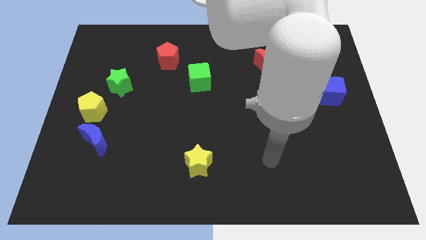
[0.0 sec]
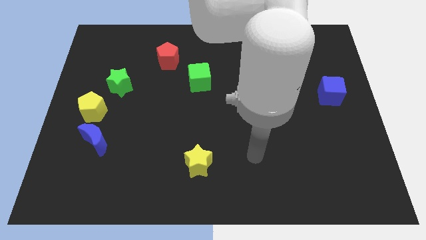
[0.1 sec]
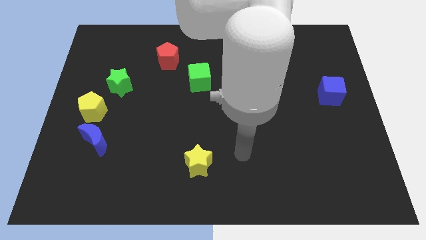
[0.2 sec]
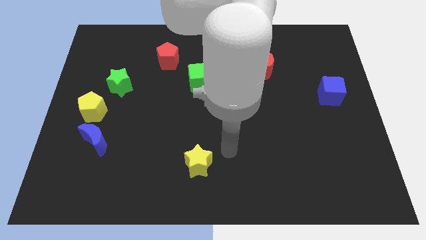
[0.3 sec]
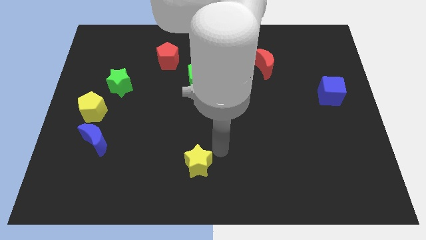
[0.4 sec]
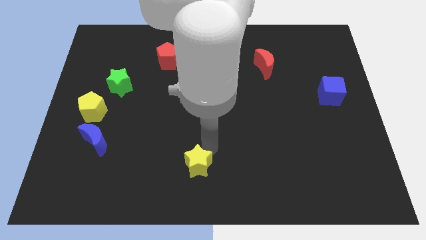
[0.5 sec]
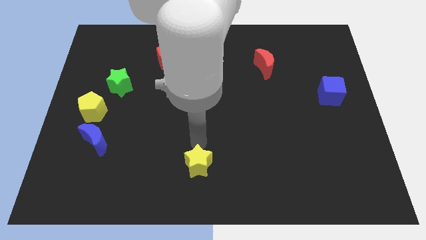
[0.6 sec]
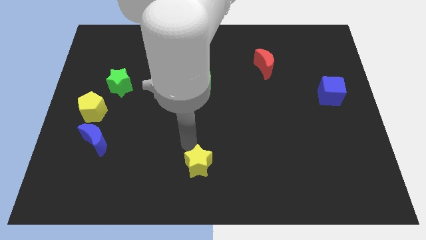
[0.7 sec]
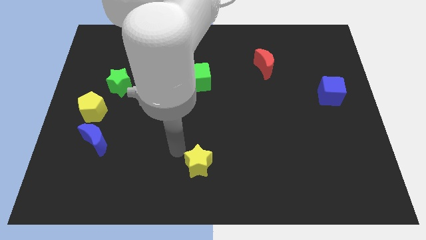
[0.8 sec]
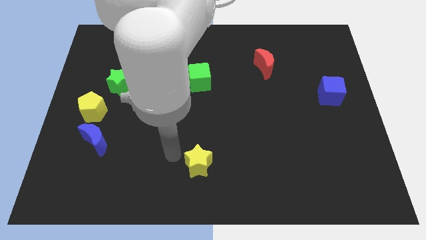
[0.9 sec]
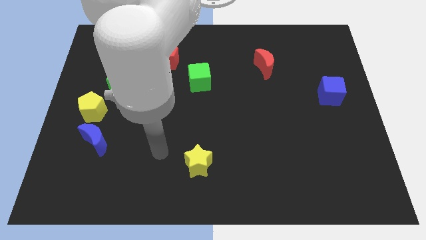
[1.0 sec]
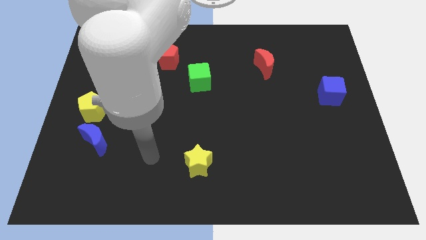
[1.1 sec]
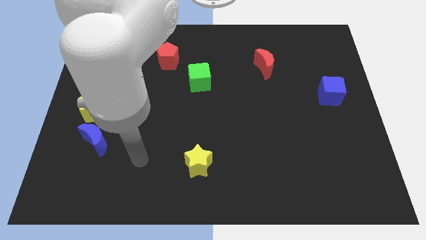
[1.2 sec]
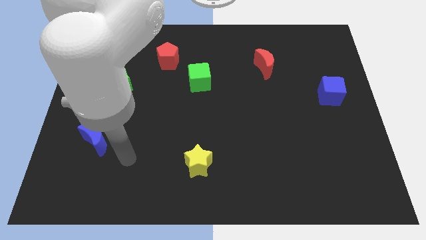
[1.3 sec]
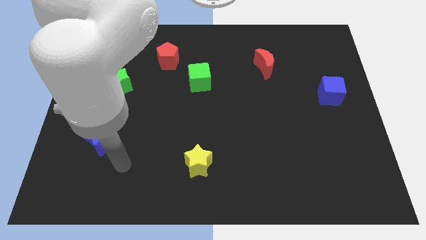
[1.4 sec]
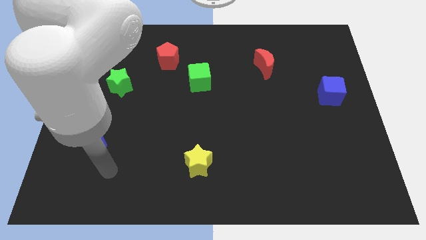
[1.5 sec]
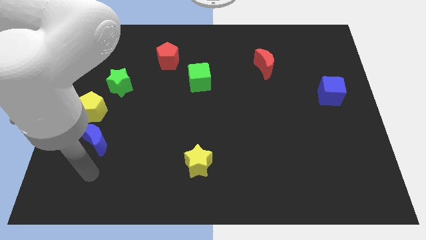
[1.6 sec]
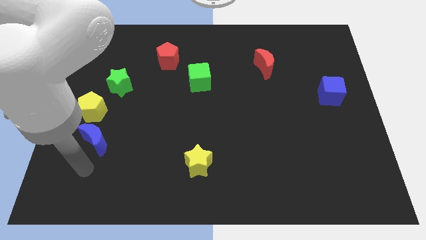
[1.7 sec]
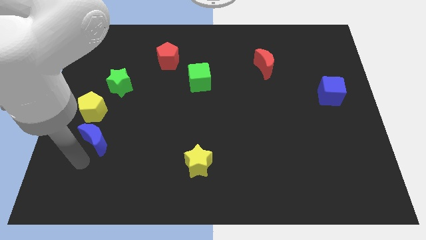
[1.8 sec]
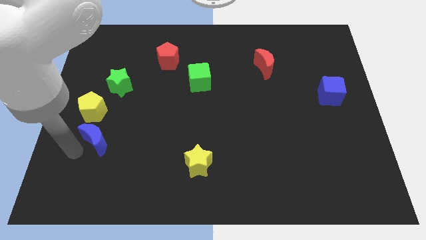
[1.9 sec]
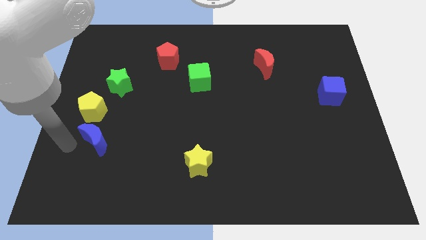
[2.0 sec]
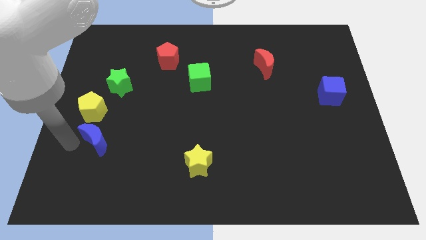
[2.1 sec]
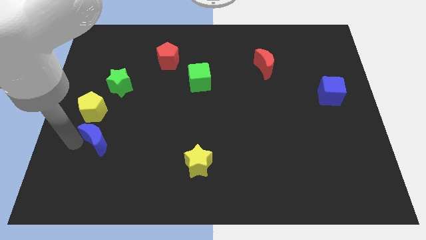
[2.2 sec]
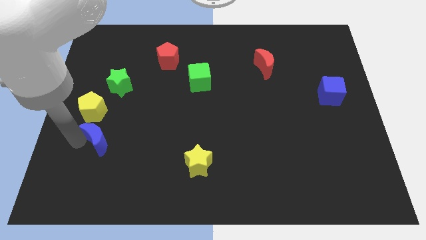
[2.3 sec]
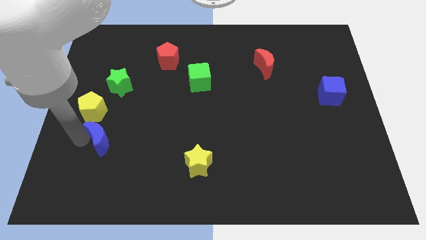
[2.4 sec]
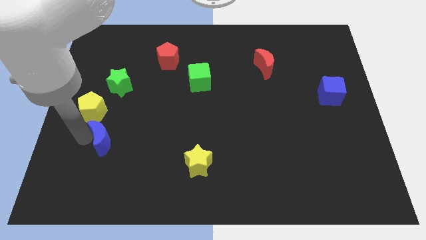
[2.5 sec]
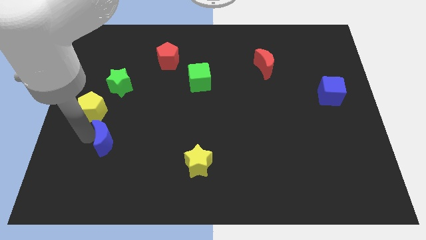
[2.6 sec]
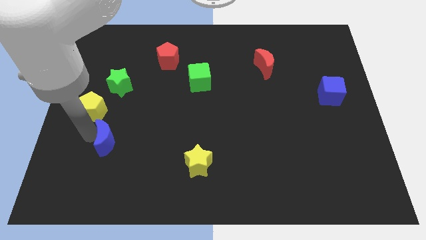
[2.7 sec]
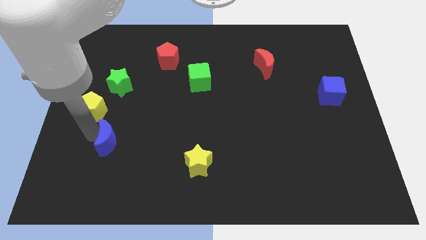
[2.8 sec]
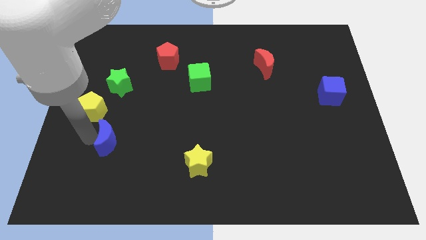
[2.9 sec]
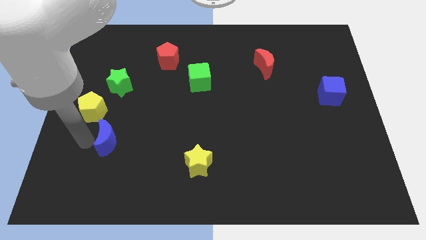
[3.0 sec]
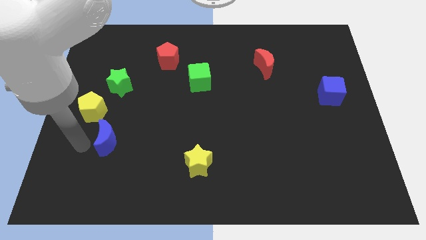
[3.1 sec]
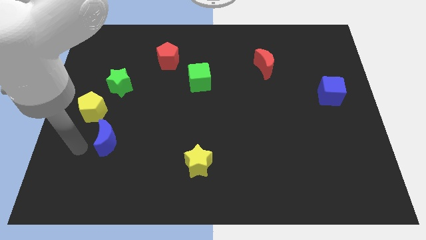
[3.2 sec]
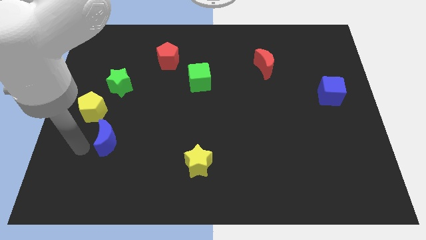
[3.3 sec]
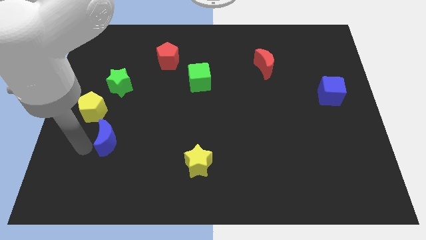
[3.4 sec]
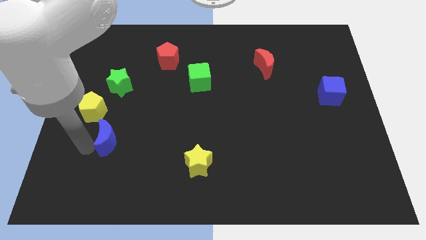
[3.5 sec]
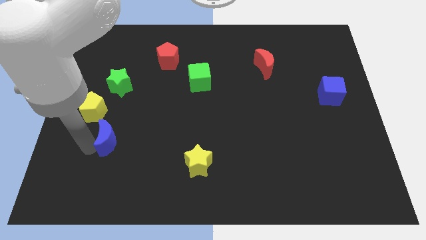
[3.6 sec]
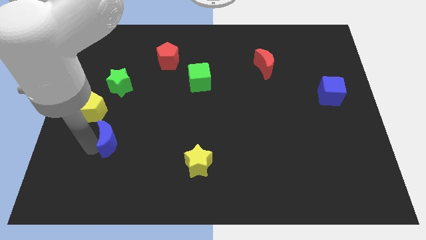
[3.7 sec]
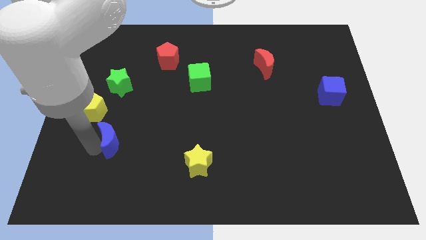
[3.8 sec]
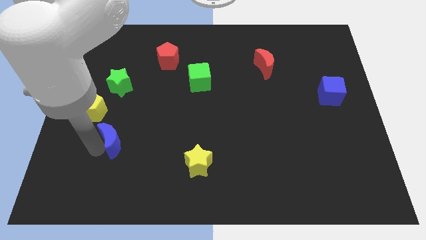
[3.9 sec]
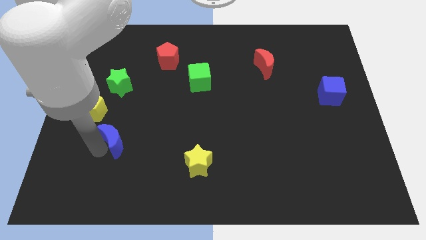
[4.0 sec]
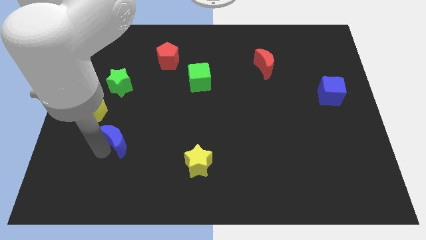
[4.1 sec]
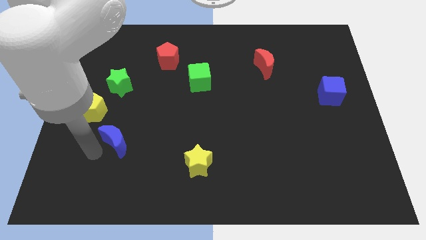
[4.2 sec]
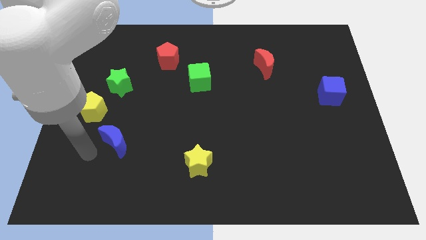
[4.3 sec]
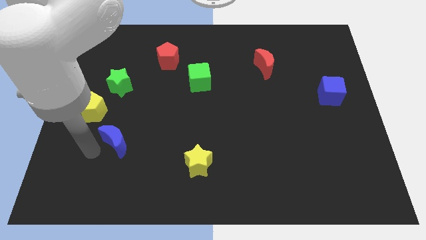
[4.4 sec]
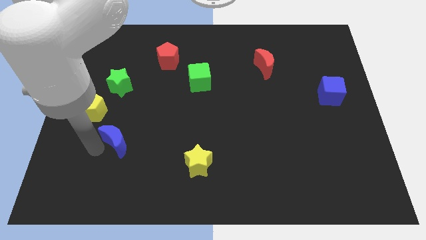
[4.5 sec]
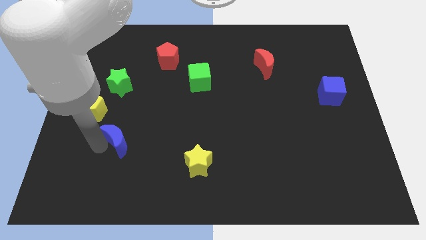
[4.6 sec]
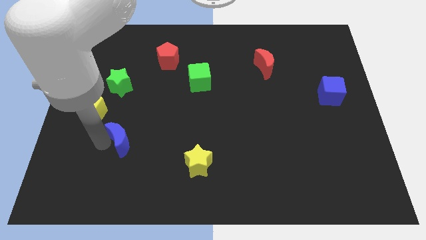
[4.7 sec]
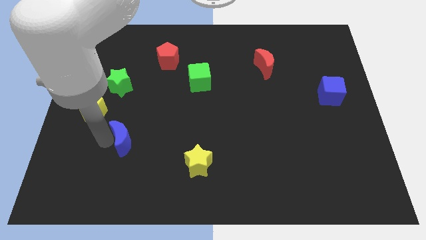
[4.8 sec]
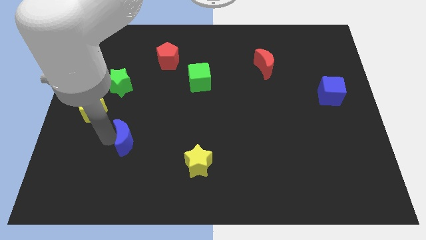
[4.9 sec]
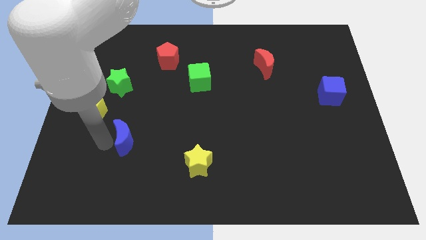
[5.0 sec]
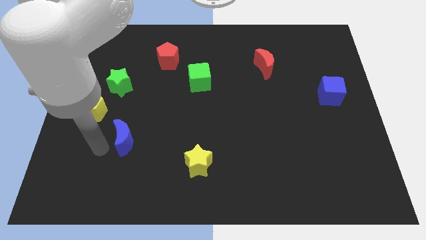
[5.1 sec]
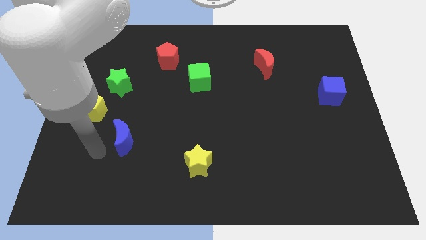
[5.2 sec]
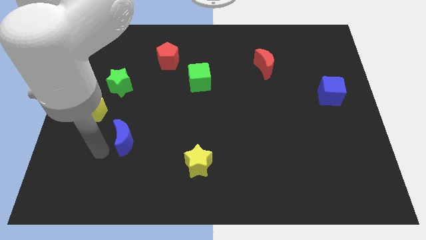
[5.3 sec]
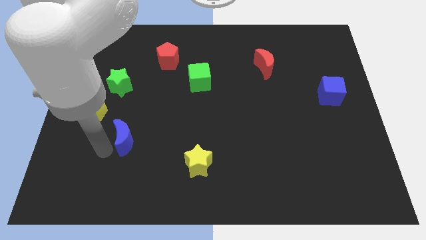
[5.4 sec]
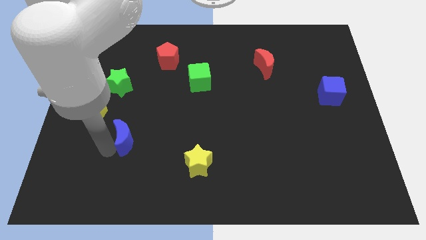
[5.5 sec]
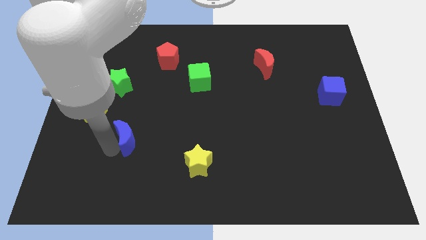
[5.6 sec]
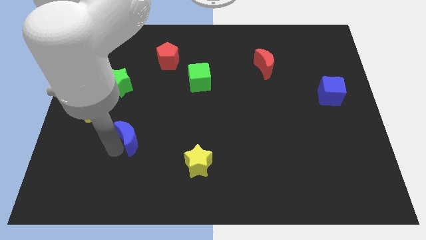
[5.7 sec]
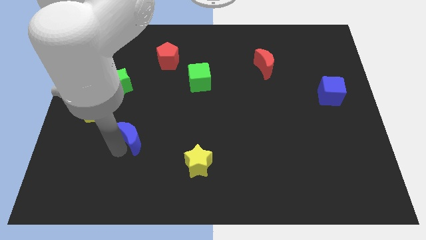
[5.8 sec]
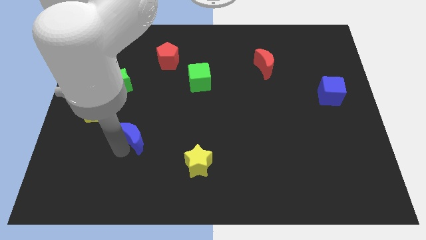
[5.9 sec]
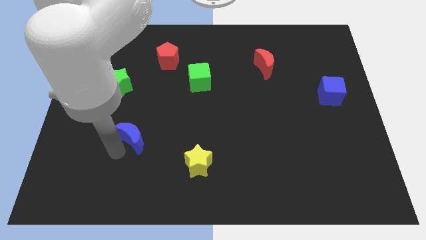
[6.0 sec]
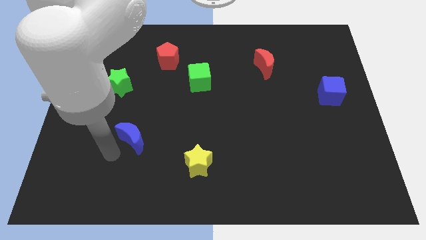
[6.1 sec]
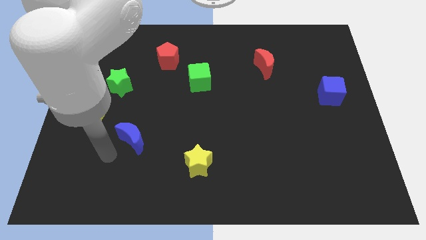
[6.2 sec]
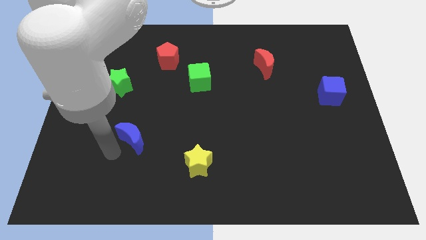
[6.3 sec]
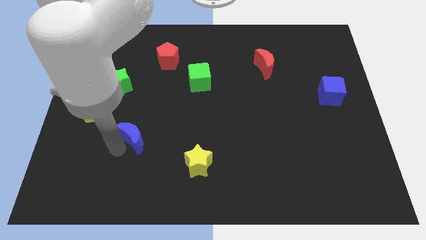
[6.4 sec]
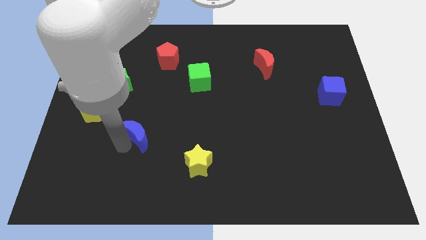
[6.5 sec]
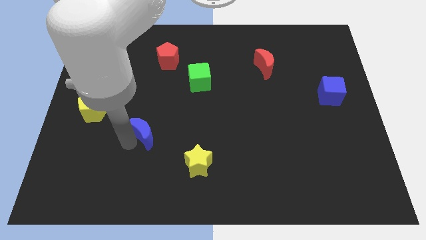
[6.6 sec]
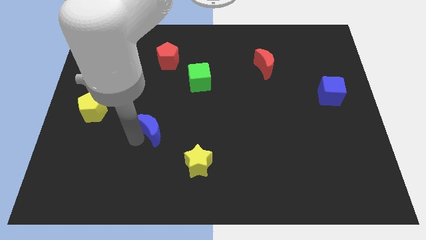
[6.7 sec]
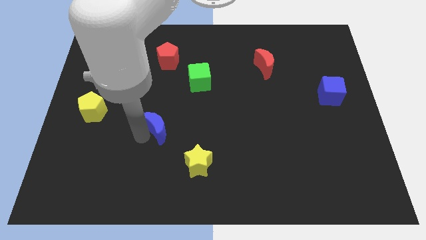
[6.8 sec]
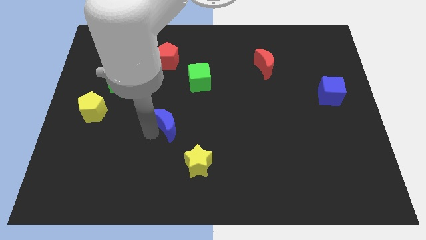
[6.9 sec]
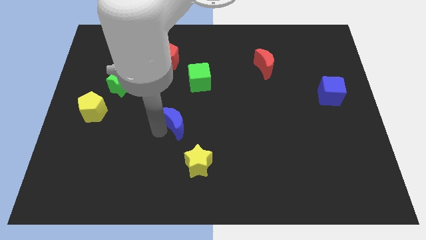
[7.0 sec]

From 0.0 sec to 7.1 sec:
push the blue moon to the middle of the board
